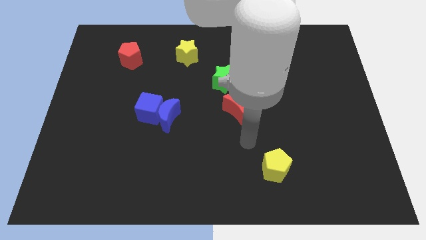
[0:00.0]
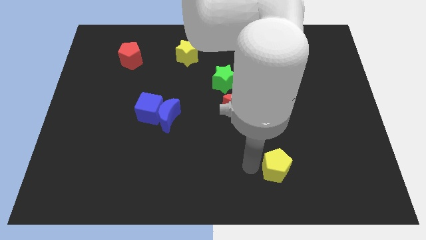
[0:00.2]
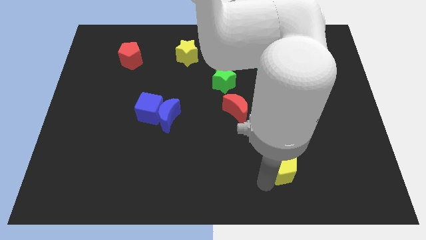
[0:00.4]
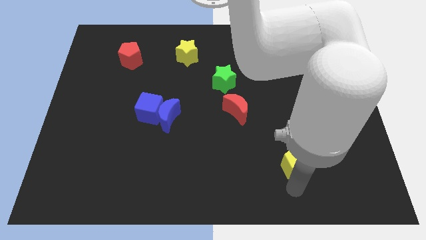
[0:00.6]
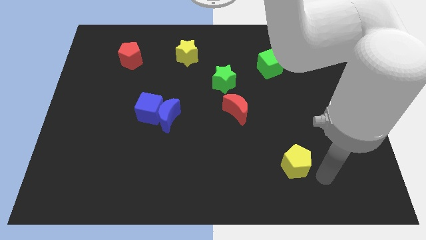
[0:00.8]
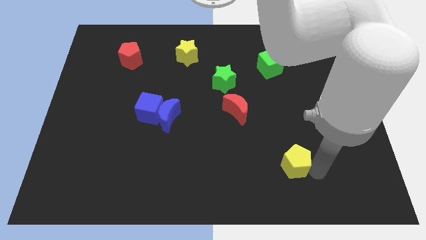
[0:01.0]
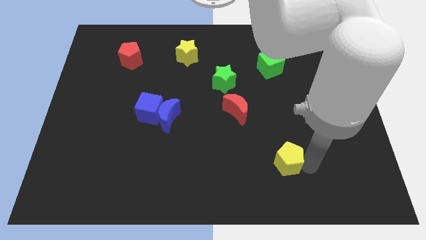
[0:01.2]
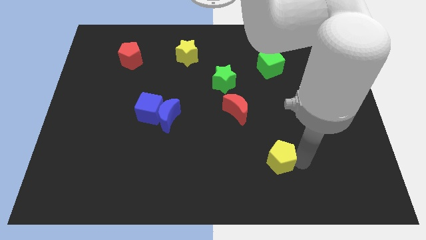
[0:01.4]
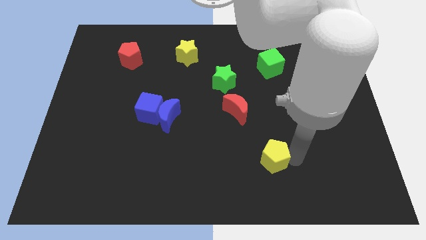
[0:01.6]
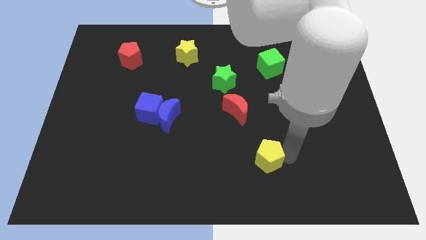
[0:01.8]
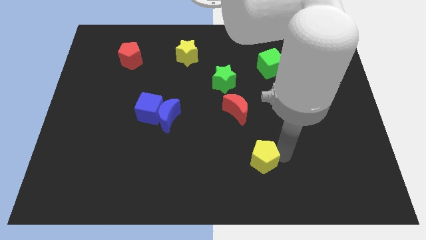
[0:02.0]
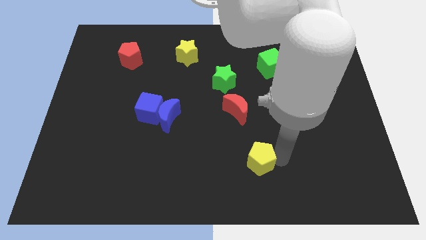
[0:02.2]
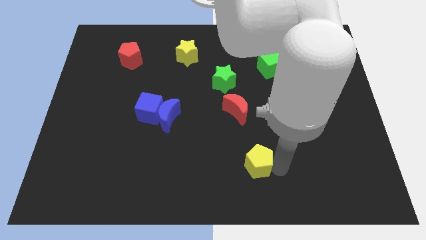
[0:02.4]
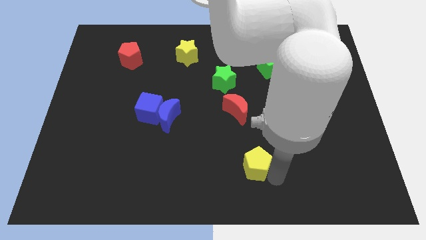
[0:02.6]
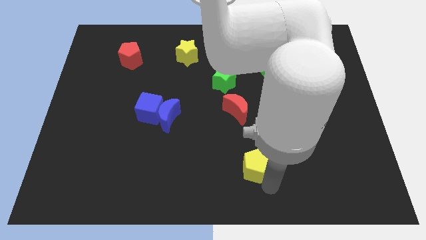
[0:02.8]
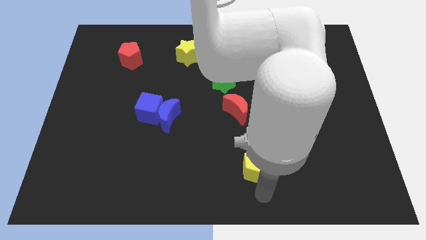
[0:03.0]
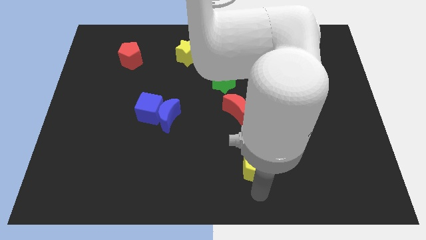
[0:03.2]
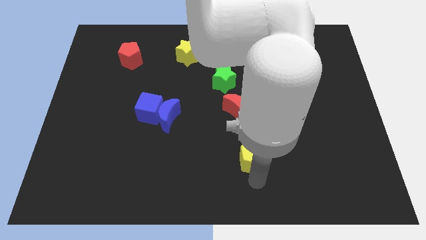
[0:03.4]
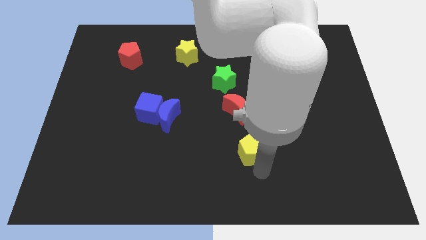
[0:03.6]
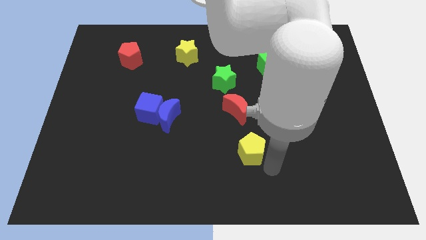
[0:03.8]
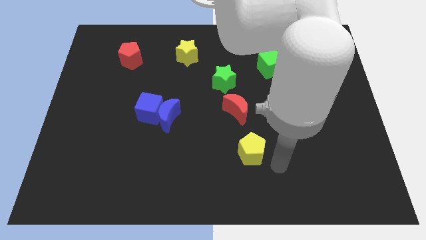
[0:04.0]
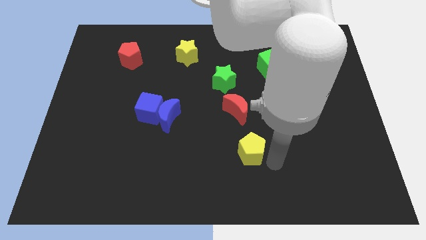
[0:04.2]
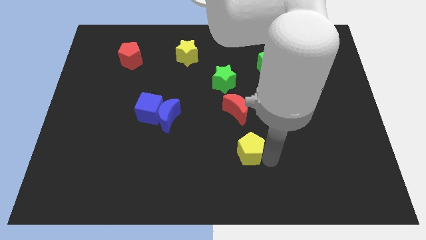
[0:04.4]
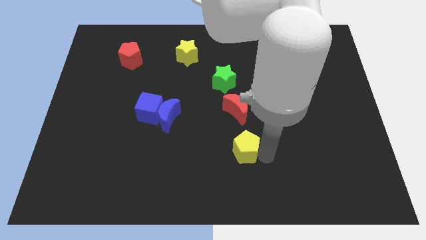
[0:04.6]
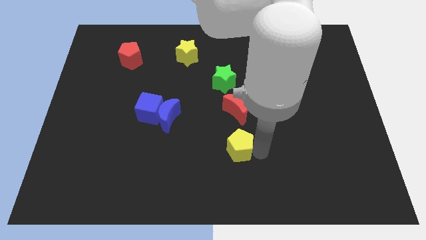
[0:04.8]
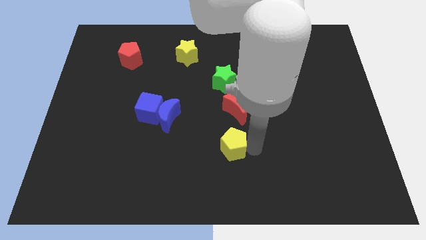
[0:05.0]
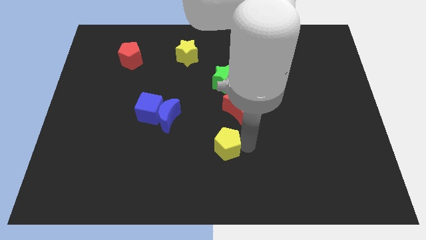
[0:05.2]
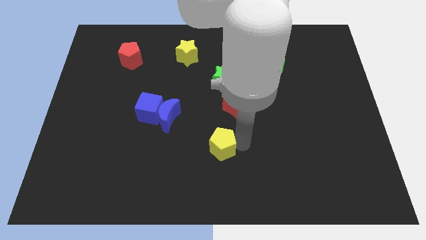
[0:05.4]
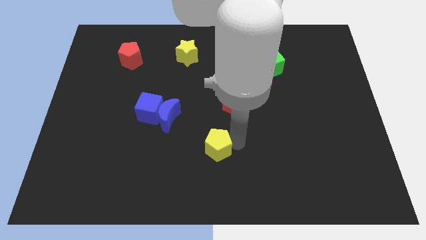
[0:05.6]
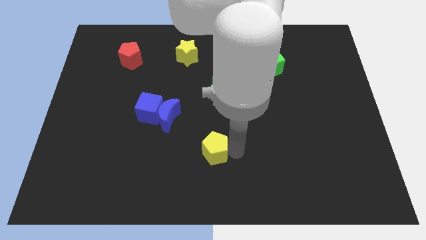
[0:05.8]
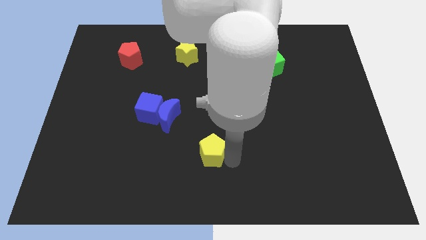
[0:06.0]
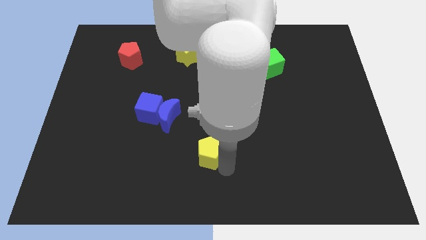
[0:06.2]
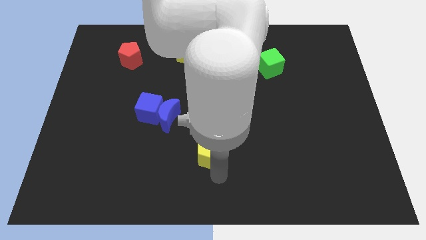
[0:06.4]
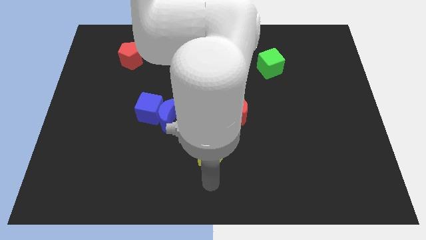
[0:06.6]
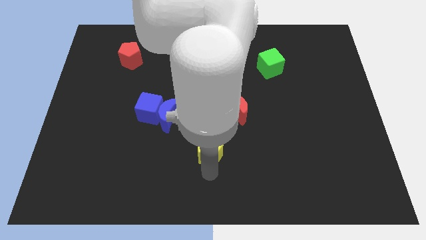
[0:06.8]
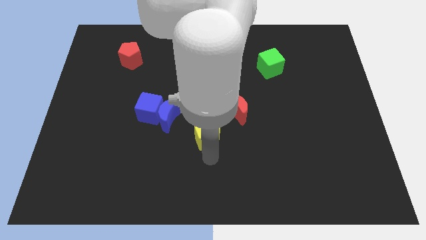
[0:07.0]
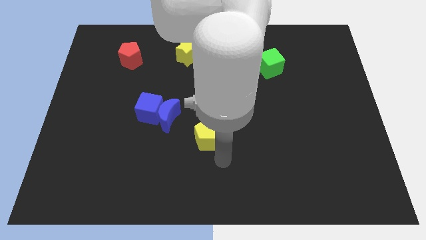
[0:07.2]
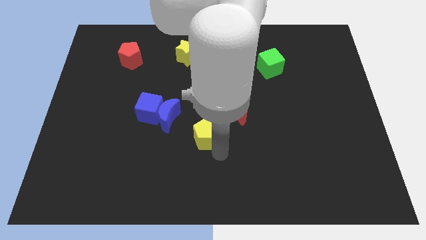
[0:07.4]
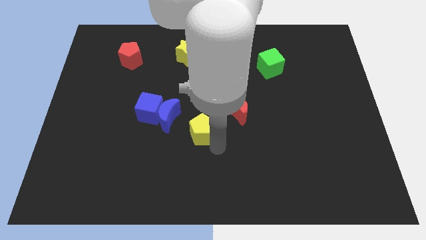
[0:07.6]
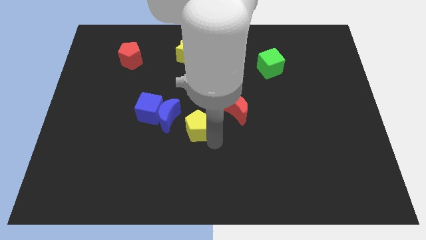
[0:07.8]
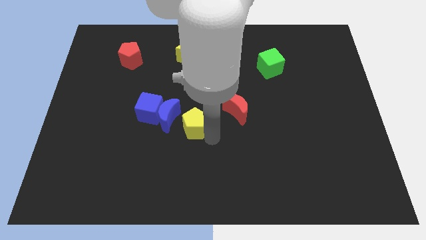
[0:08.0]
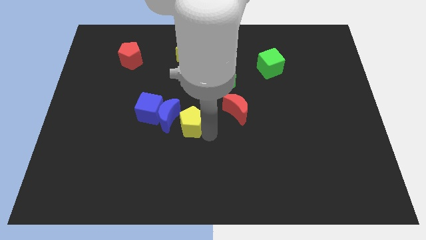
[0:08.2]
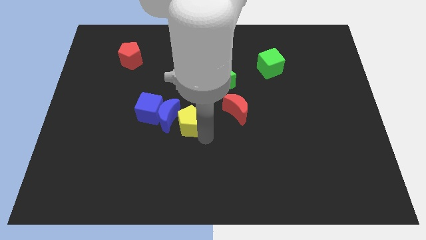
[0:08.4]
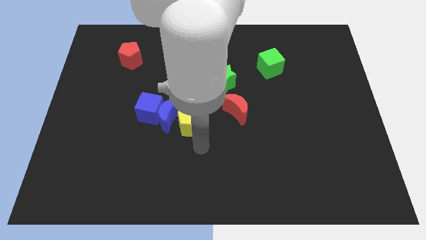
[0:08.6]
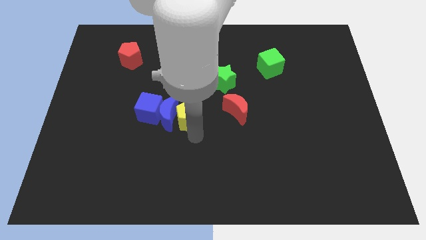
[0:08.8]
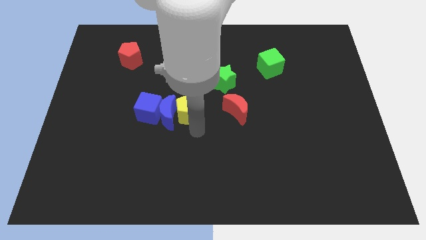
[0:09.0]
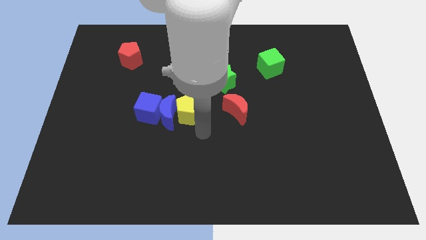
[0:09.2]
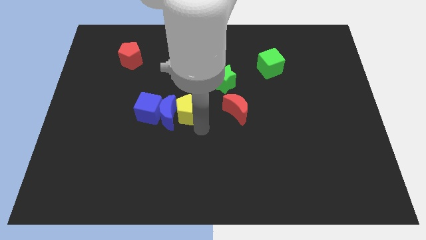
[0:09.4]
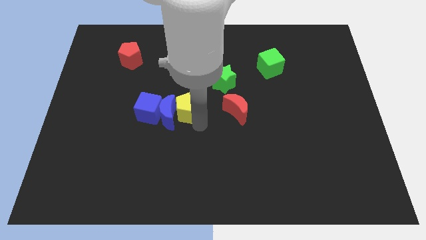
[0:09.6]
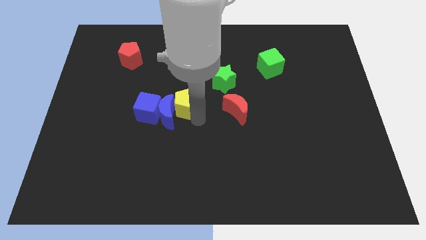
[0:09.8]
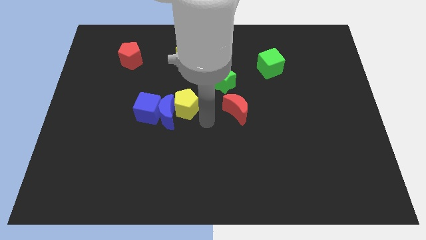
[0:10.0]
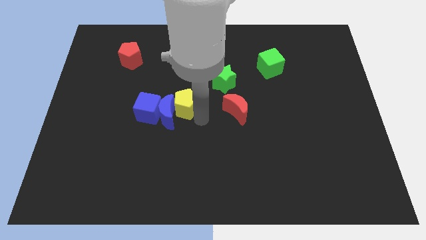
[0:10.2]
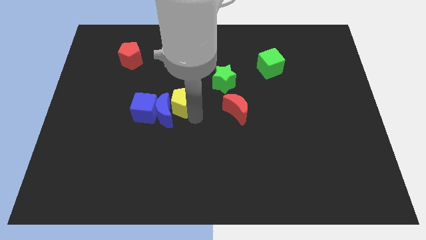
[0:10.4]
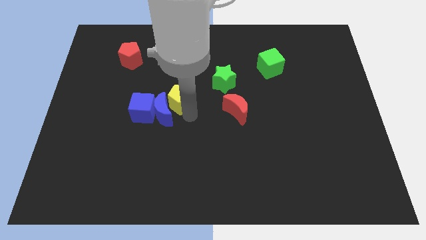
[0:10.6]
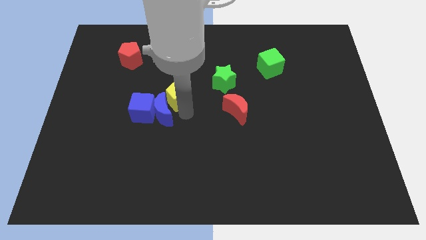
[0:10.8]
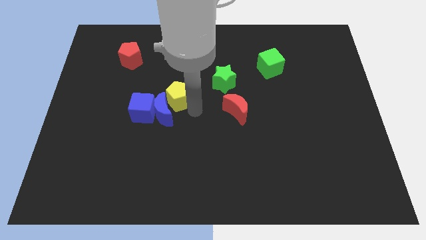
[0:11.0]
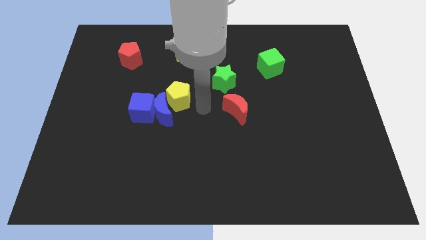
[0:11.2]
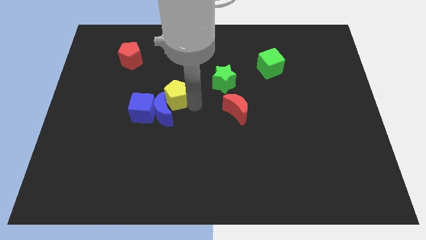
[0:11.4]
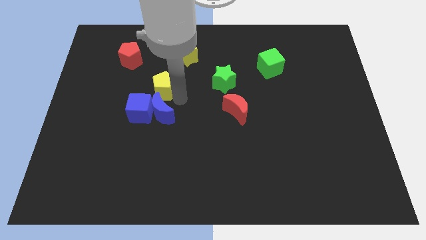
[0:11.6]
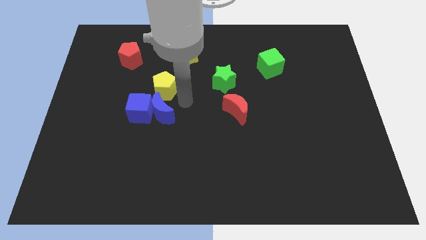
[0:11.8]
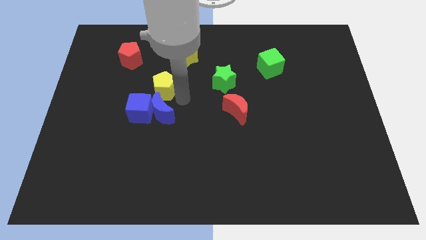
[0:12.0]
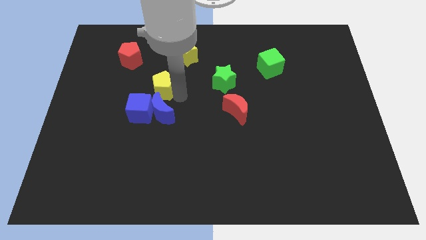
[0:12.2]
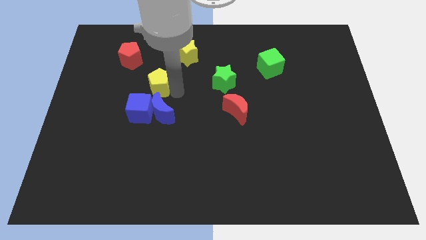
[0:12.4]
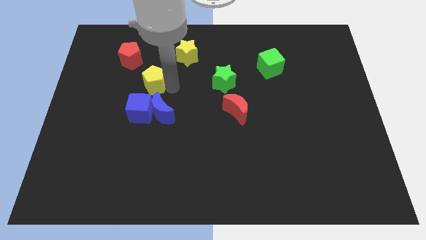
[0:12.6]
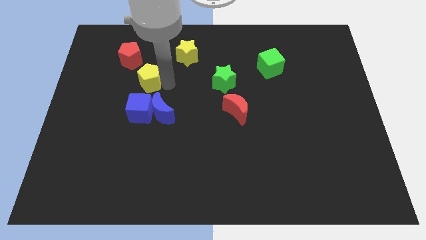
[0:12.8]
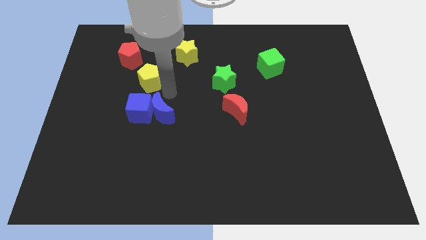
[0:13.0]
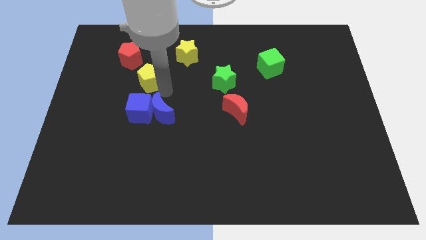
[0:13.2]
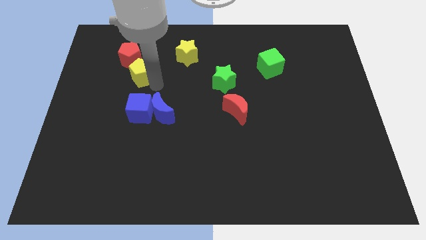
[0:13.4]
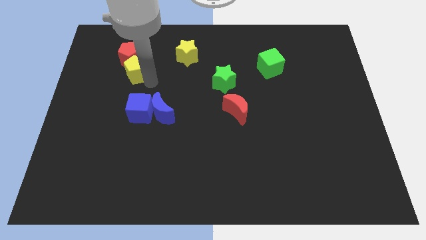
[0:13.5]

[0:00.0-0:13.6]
put the yellow pentagon towards the red pentagon

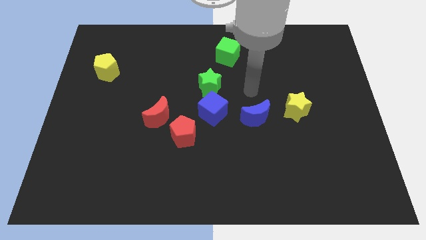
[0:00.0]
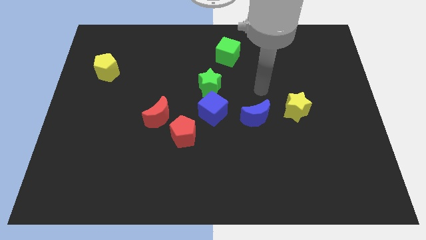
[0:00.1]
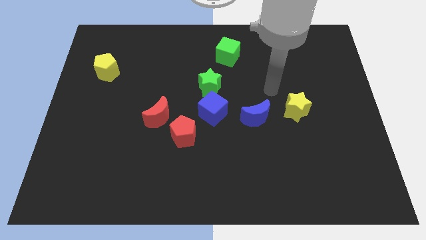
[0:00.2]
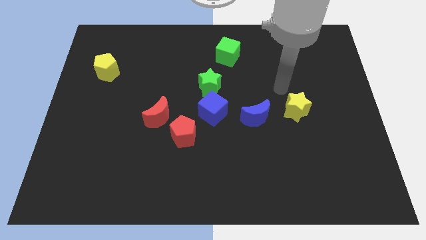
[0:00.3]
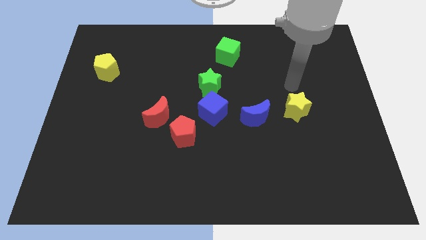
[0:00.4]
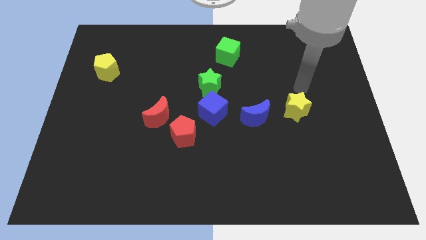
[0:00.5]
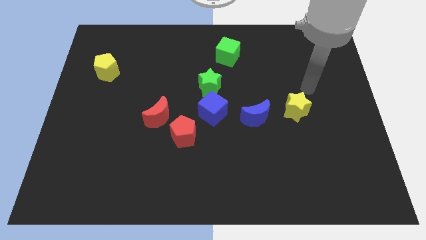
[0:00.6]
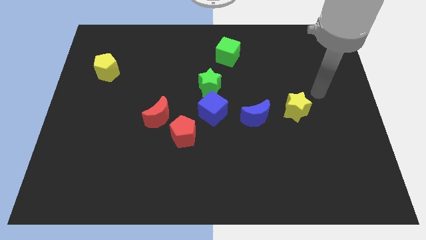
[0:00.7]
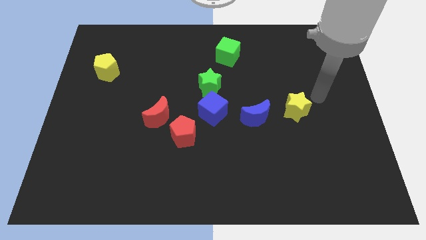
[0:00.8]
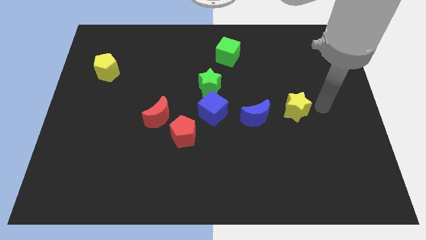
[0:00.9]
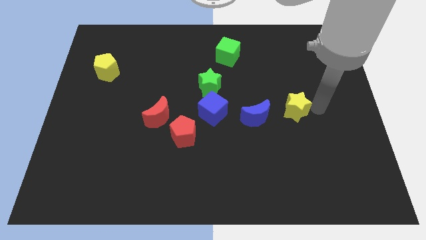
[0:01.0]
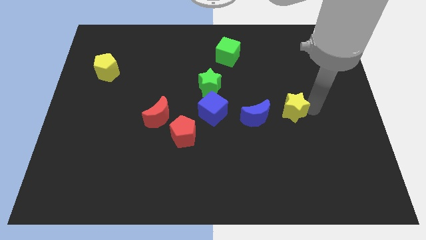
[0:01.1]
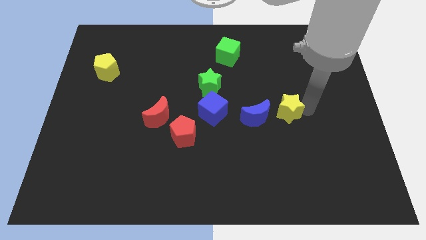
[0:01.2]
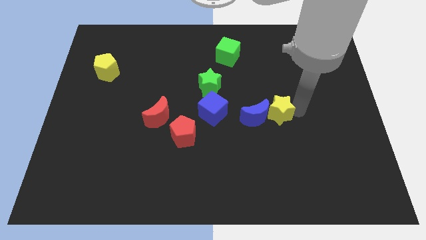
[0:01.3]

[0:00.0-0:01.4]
put the yellow star close to the blue moon
